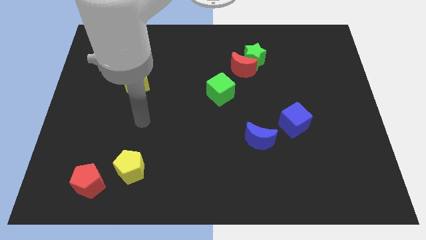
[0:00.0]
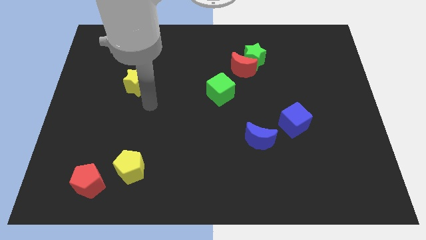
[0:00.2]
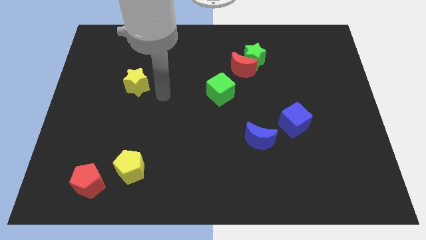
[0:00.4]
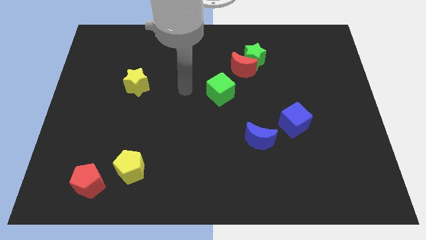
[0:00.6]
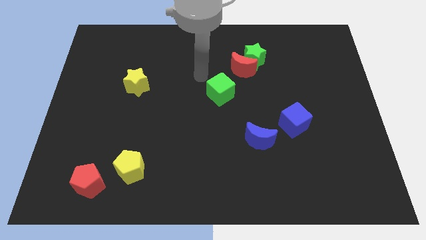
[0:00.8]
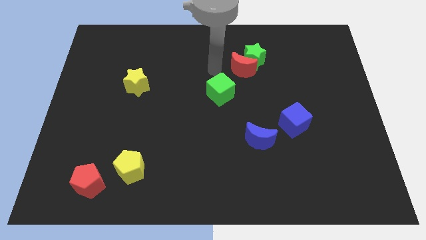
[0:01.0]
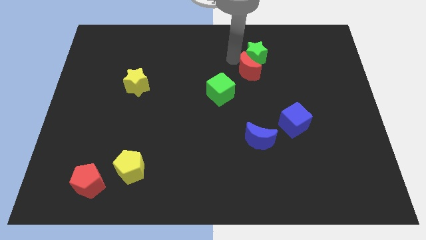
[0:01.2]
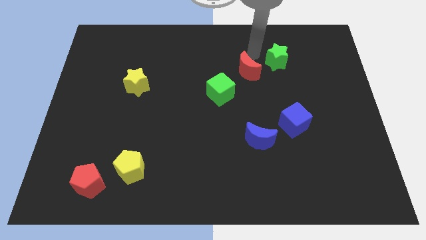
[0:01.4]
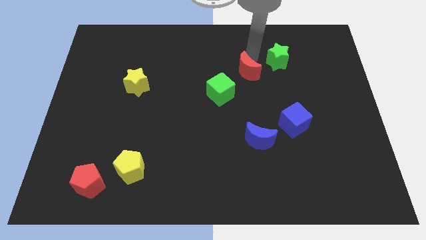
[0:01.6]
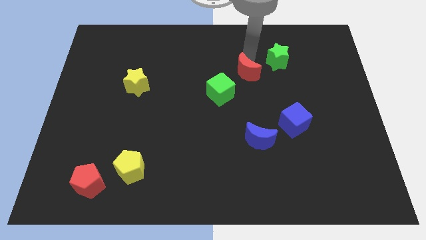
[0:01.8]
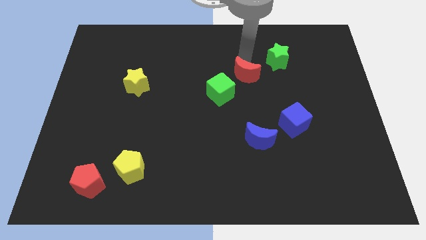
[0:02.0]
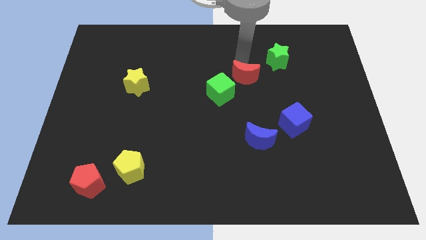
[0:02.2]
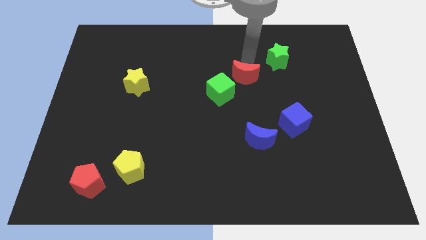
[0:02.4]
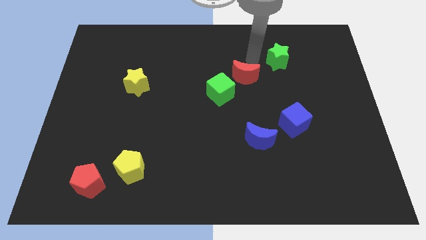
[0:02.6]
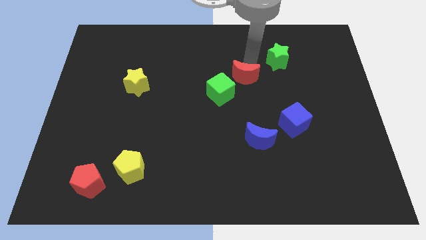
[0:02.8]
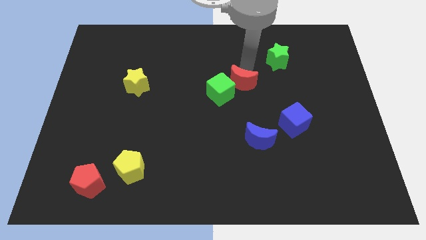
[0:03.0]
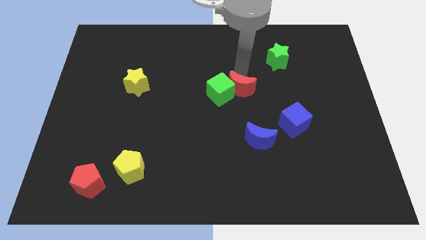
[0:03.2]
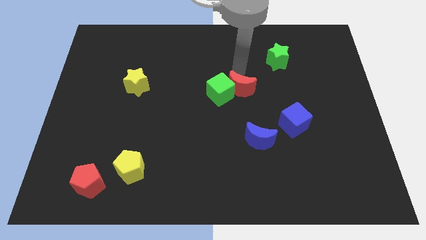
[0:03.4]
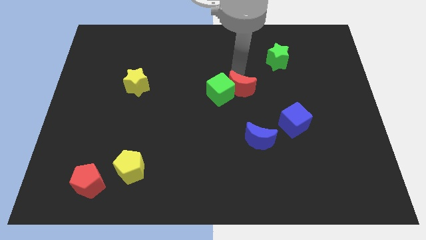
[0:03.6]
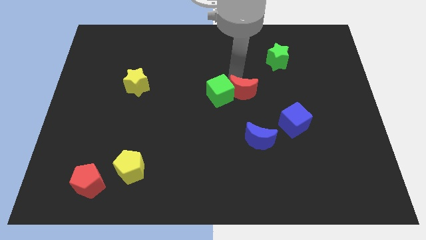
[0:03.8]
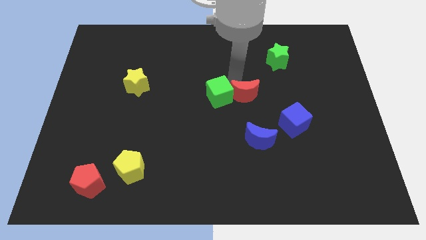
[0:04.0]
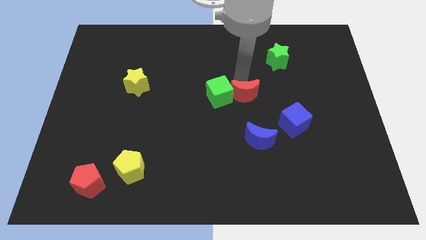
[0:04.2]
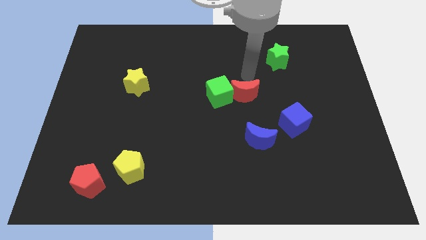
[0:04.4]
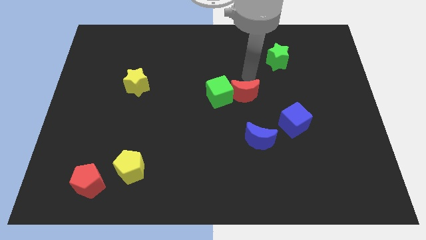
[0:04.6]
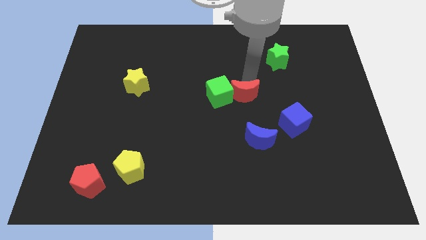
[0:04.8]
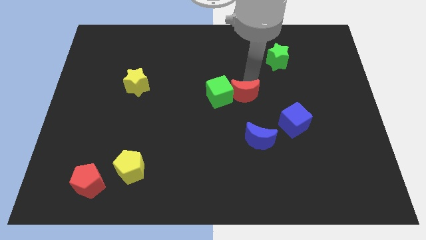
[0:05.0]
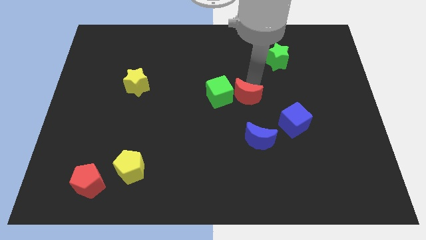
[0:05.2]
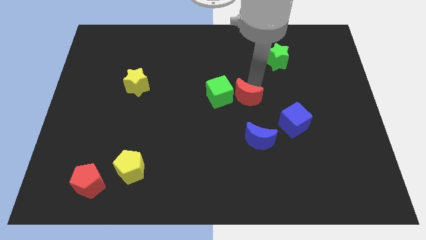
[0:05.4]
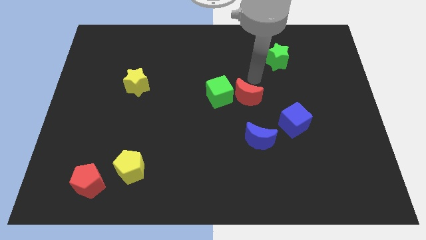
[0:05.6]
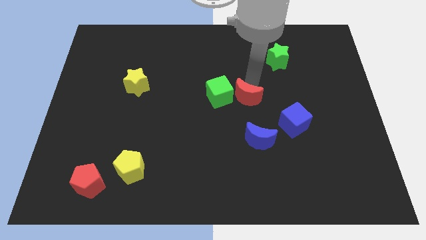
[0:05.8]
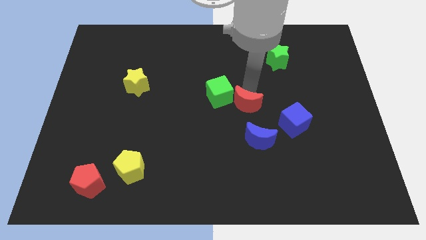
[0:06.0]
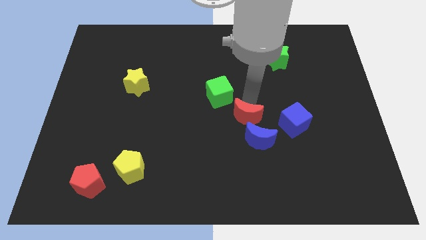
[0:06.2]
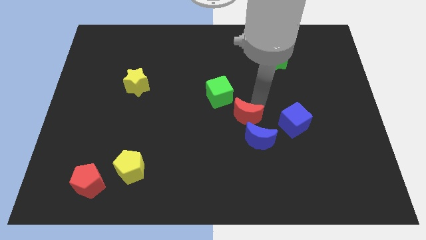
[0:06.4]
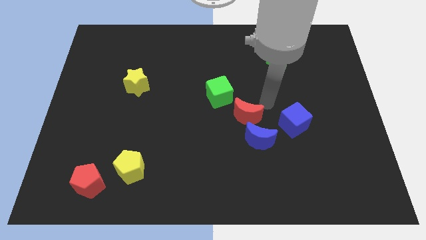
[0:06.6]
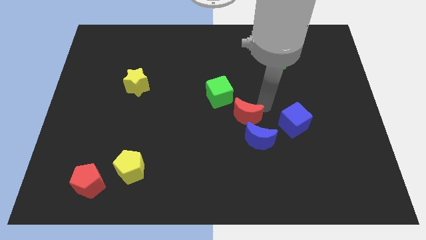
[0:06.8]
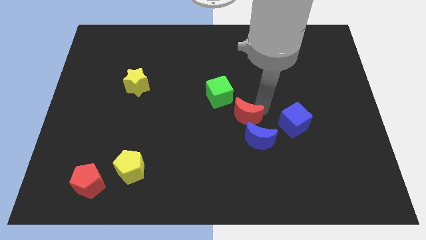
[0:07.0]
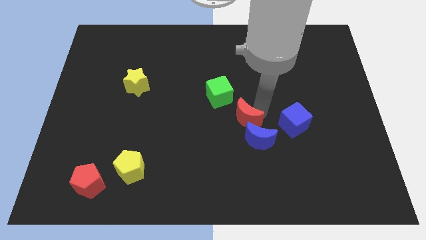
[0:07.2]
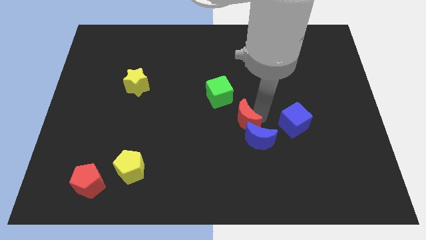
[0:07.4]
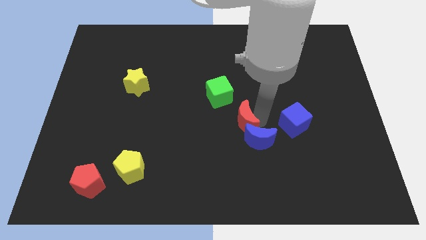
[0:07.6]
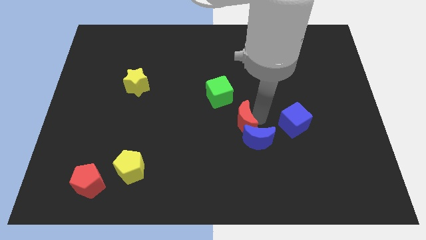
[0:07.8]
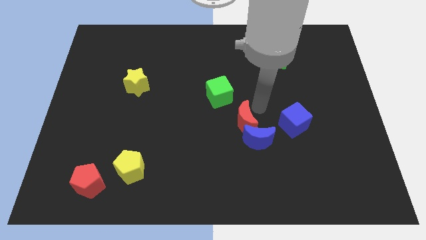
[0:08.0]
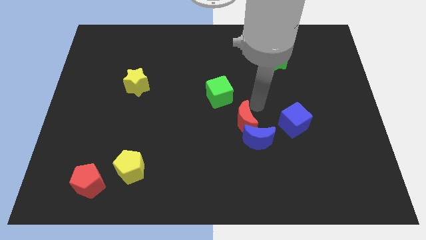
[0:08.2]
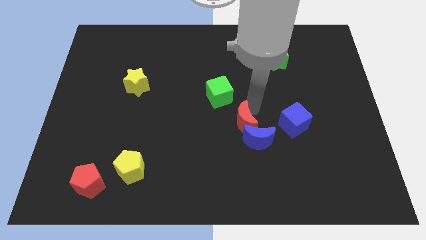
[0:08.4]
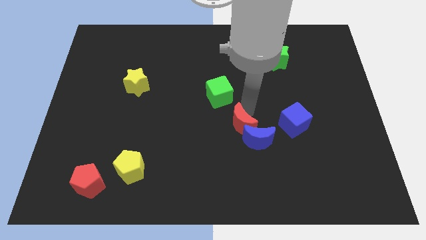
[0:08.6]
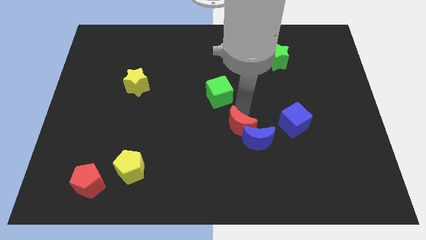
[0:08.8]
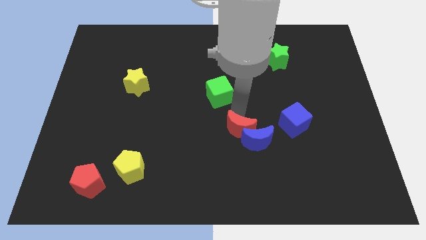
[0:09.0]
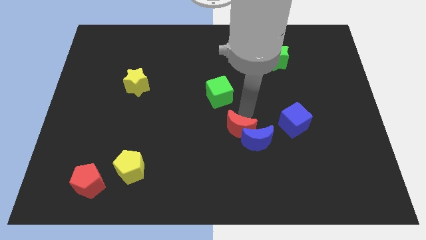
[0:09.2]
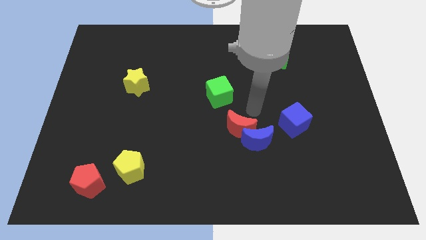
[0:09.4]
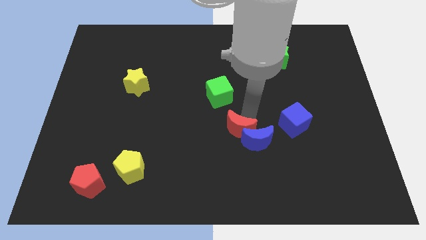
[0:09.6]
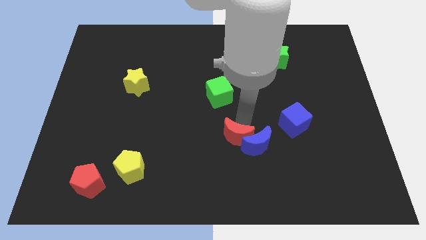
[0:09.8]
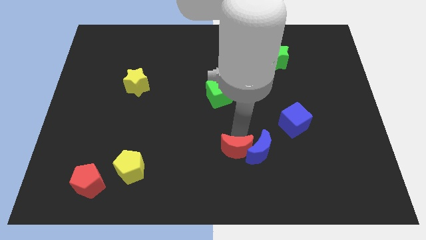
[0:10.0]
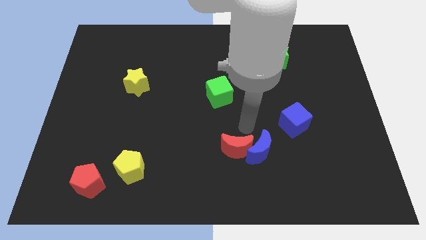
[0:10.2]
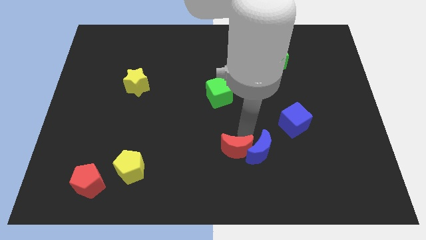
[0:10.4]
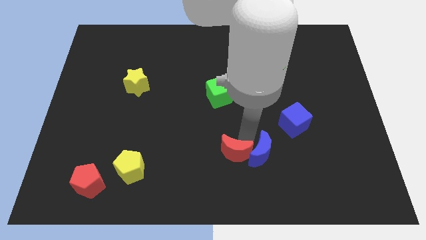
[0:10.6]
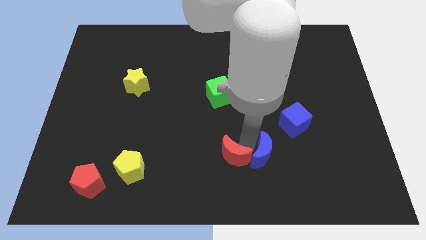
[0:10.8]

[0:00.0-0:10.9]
slide the red moon to the bottom side

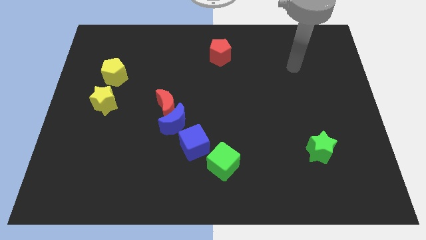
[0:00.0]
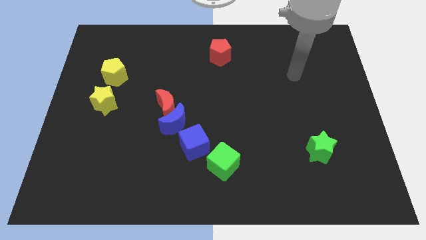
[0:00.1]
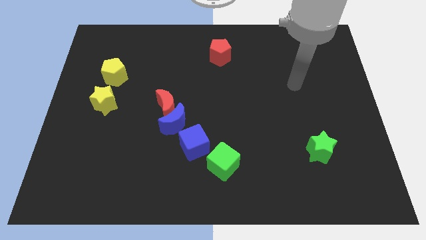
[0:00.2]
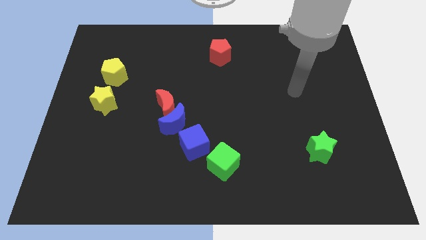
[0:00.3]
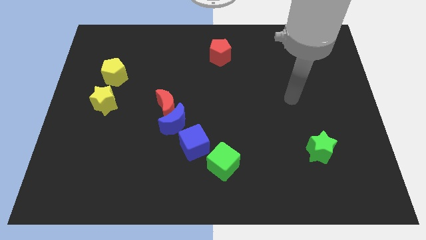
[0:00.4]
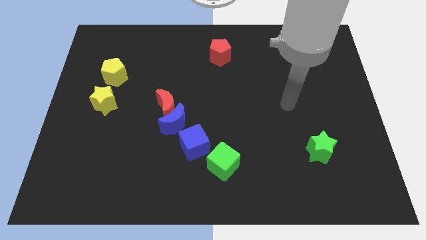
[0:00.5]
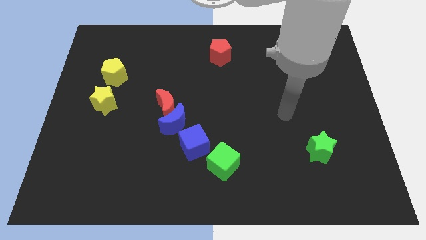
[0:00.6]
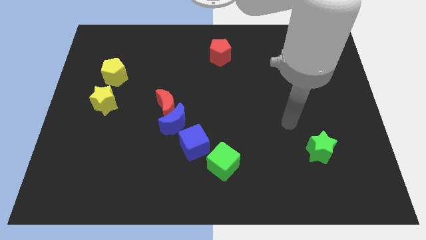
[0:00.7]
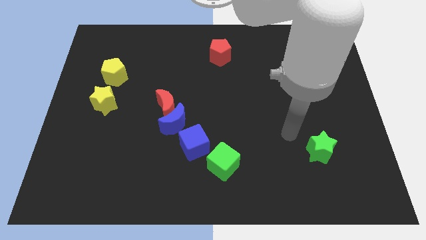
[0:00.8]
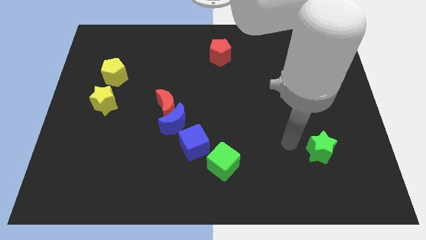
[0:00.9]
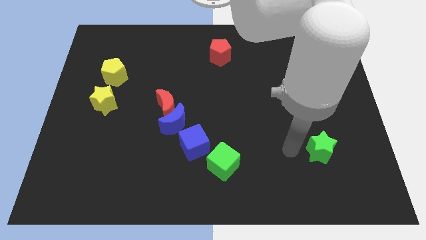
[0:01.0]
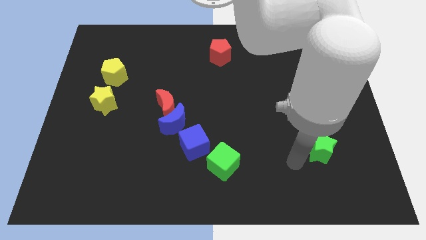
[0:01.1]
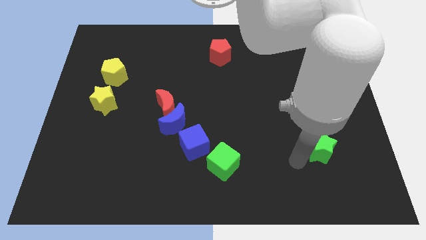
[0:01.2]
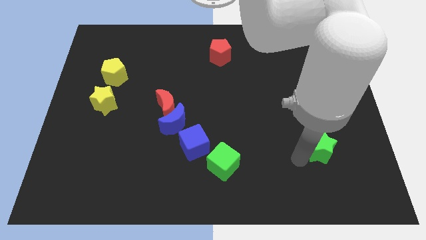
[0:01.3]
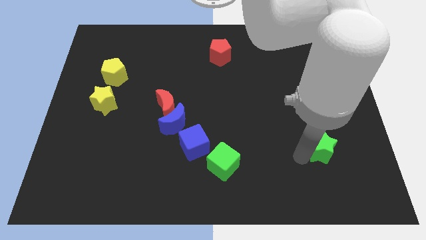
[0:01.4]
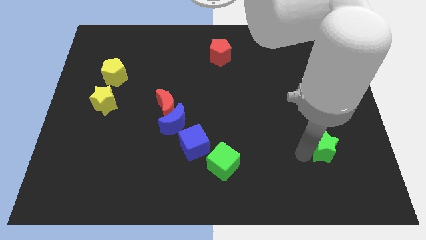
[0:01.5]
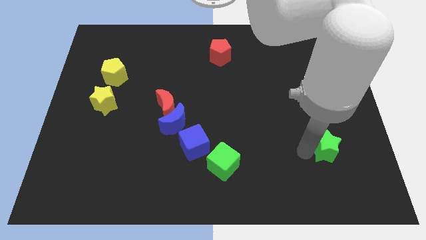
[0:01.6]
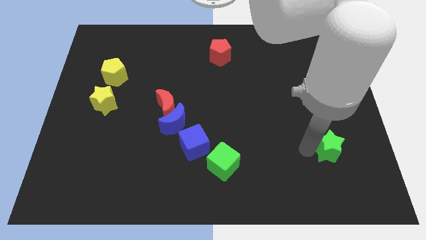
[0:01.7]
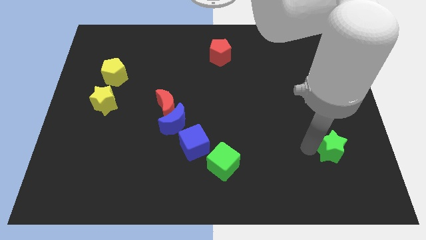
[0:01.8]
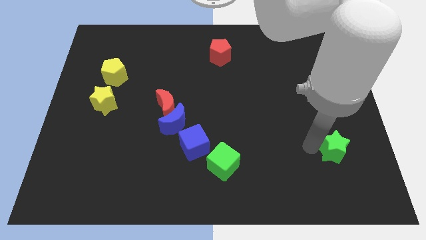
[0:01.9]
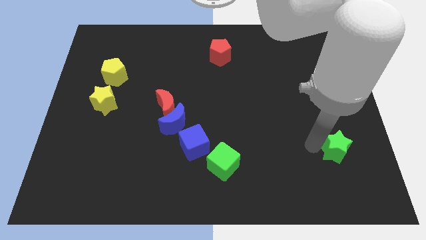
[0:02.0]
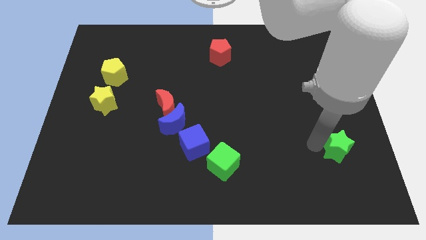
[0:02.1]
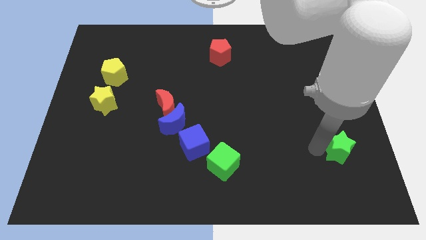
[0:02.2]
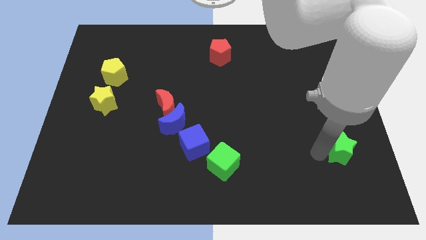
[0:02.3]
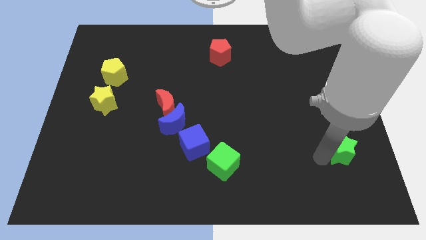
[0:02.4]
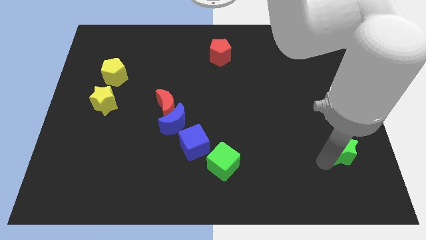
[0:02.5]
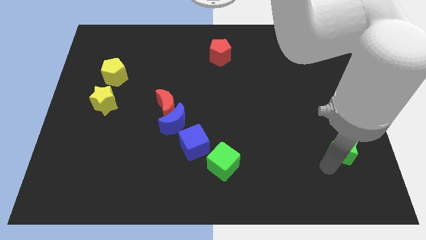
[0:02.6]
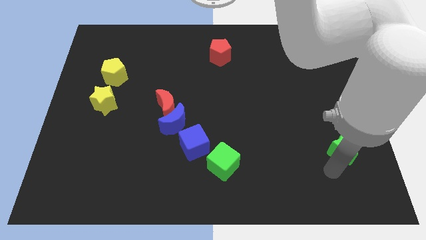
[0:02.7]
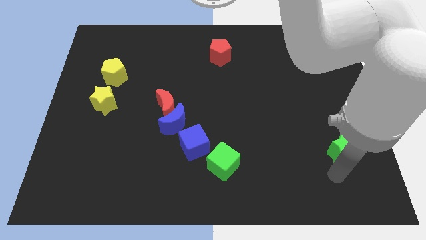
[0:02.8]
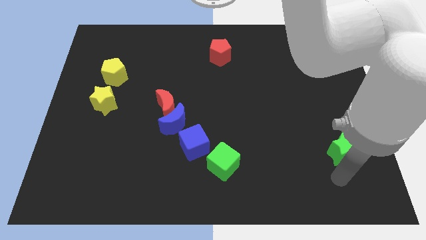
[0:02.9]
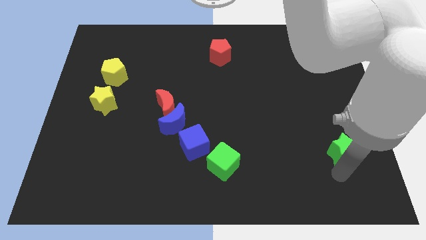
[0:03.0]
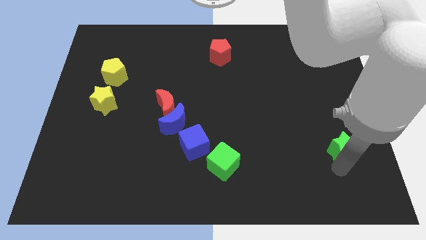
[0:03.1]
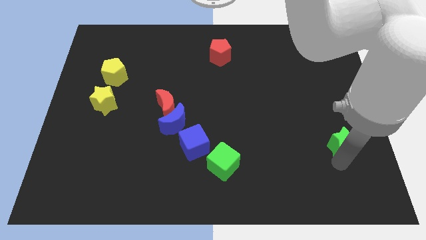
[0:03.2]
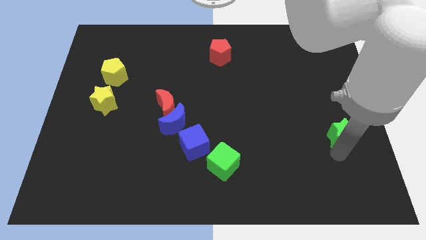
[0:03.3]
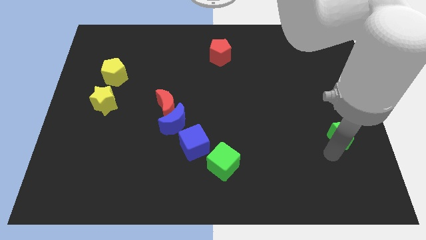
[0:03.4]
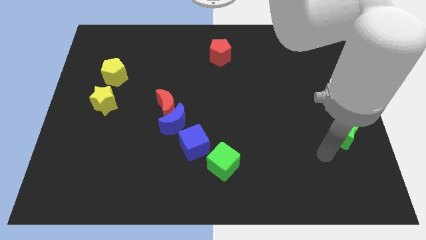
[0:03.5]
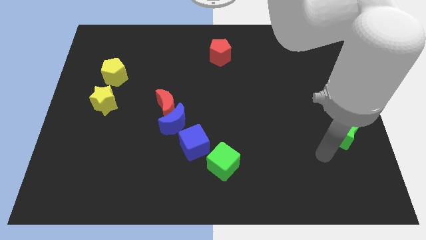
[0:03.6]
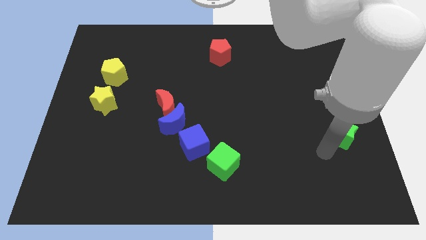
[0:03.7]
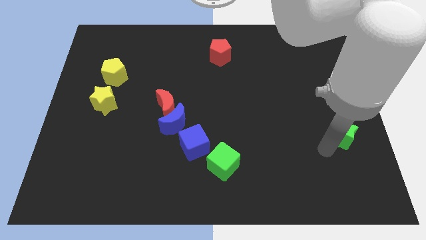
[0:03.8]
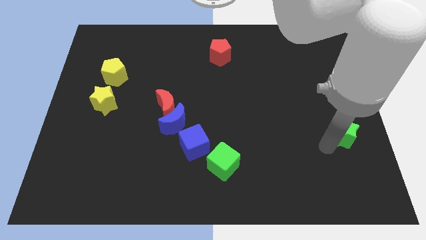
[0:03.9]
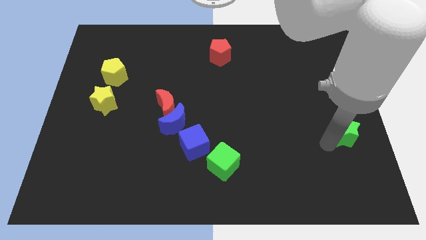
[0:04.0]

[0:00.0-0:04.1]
push the green star to the center right
